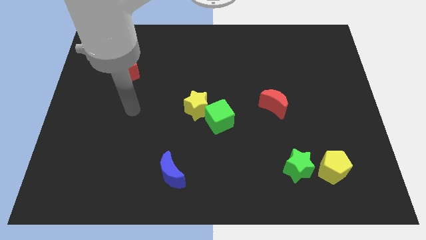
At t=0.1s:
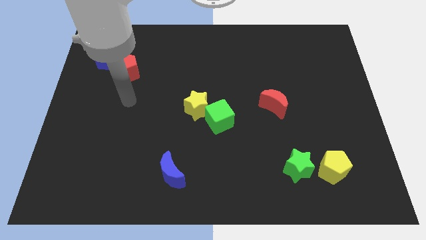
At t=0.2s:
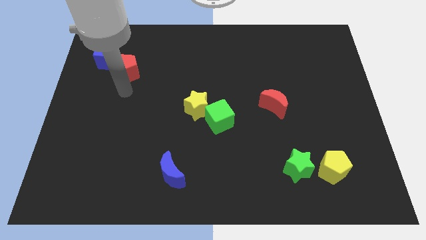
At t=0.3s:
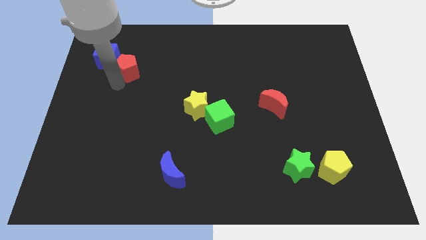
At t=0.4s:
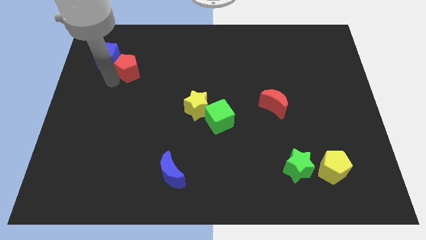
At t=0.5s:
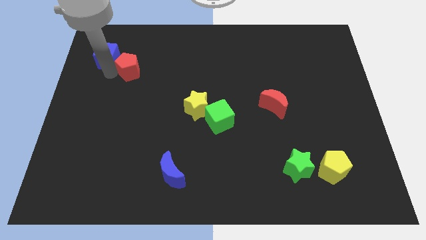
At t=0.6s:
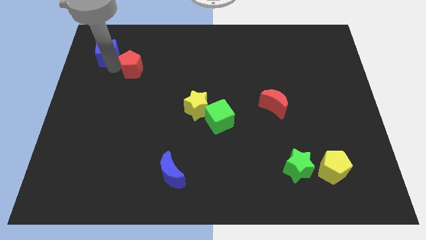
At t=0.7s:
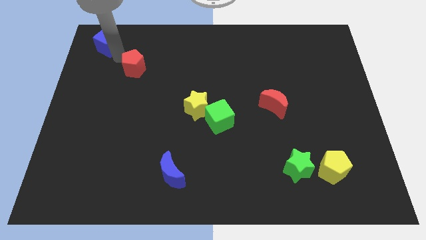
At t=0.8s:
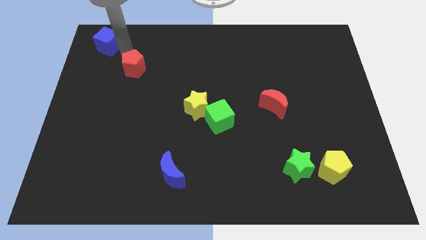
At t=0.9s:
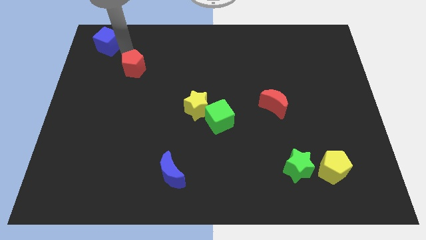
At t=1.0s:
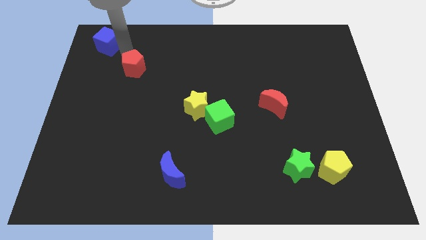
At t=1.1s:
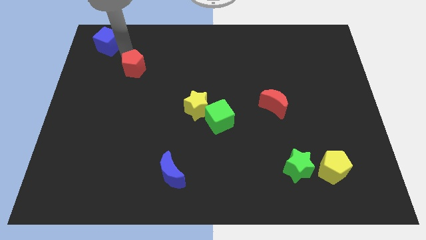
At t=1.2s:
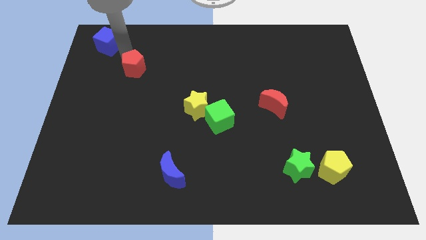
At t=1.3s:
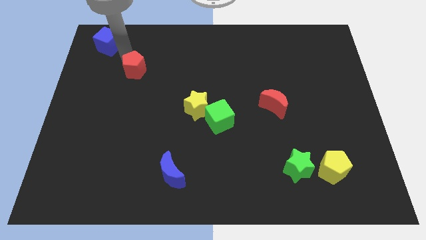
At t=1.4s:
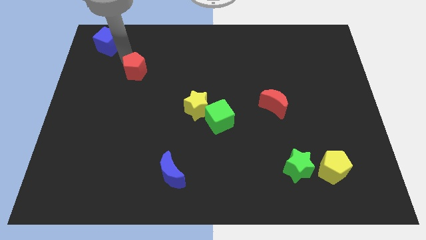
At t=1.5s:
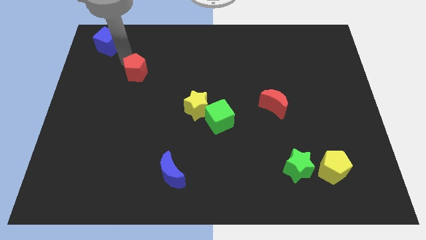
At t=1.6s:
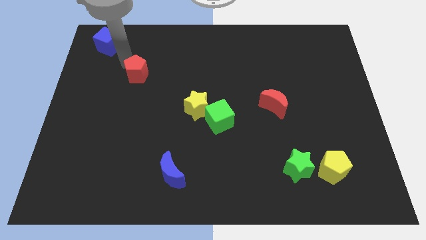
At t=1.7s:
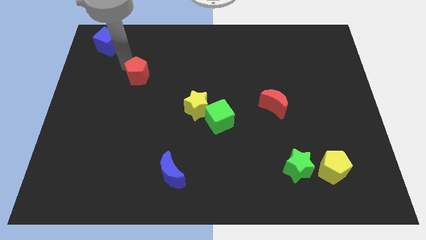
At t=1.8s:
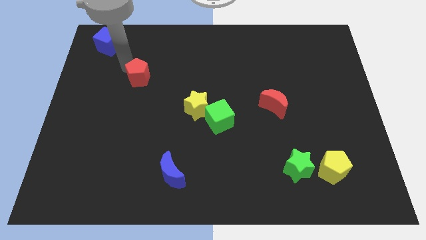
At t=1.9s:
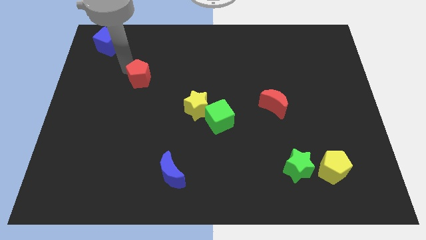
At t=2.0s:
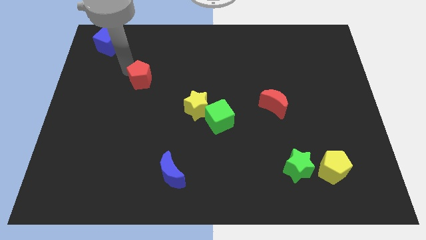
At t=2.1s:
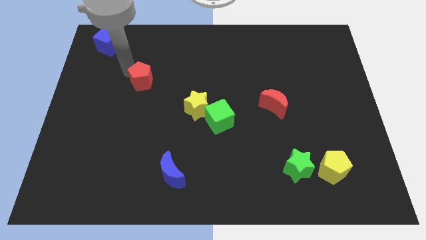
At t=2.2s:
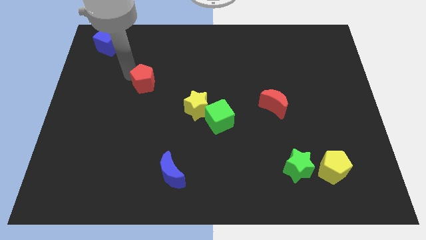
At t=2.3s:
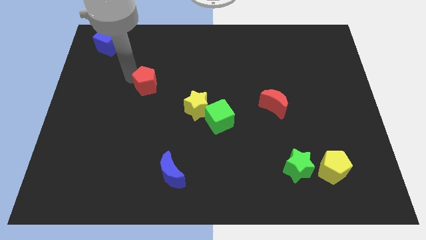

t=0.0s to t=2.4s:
move the red pentagon down and to the right diagonally a little

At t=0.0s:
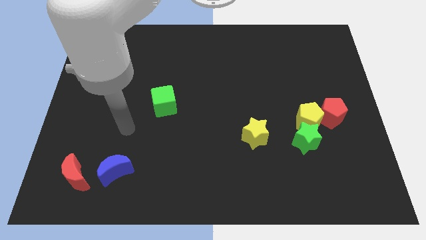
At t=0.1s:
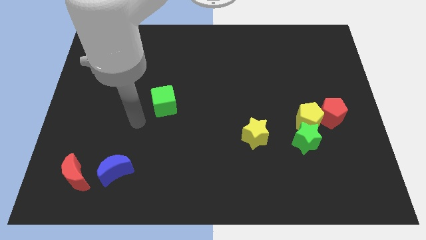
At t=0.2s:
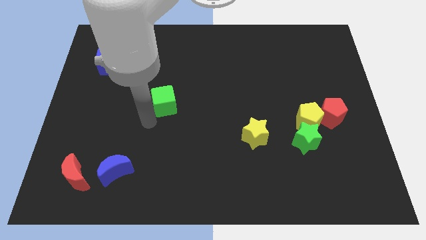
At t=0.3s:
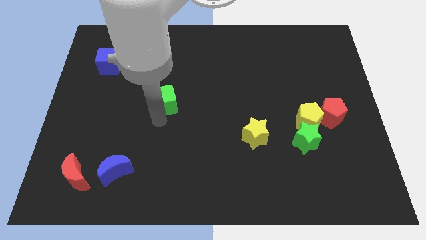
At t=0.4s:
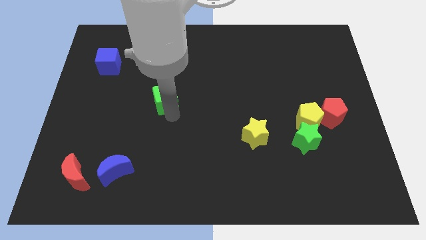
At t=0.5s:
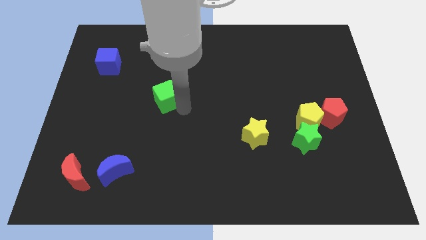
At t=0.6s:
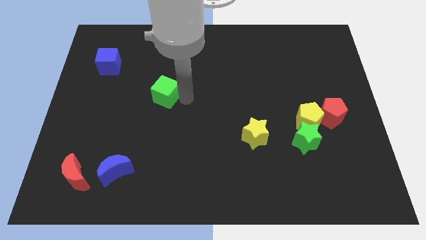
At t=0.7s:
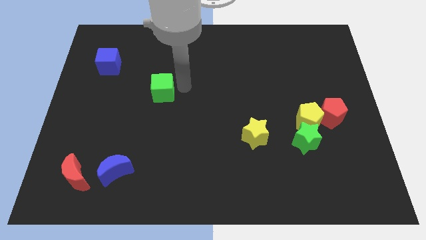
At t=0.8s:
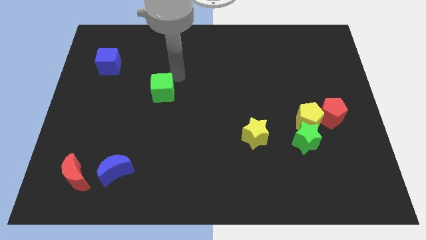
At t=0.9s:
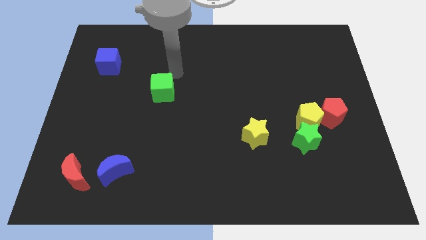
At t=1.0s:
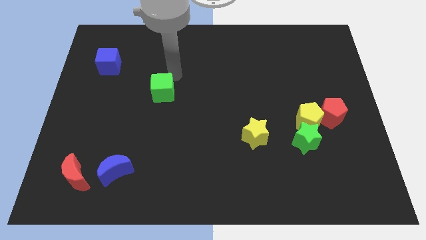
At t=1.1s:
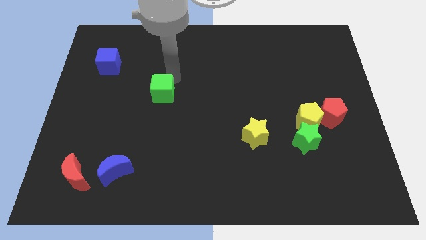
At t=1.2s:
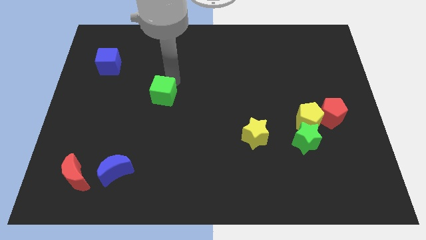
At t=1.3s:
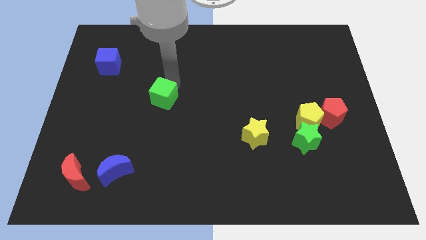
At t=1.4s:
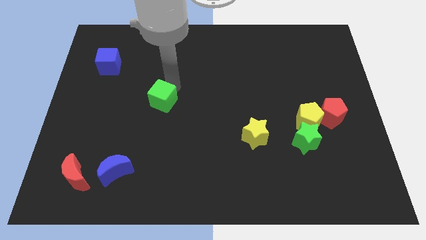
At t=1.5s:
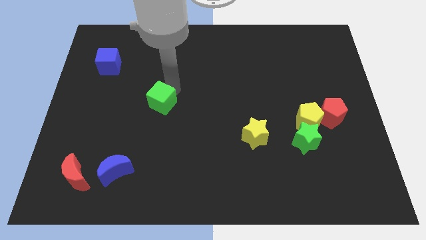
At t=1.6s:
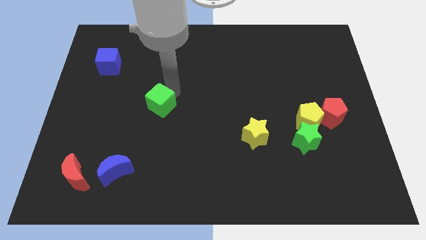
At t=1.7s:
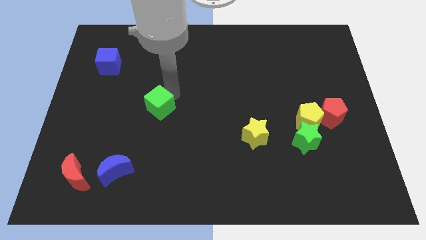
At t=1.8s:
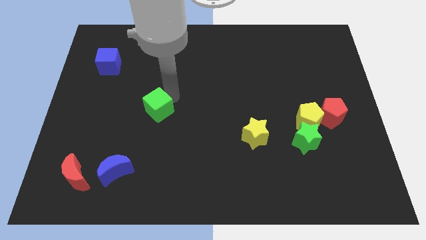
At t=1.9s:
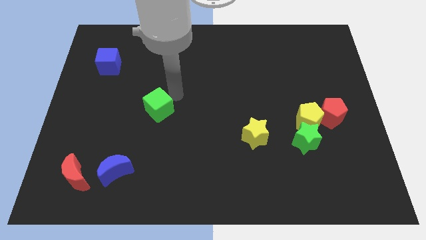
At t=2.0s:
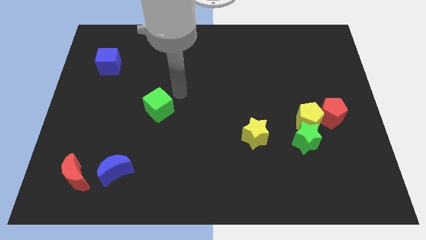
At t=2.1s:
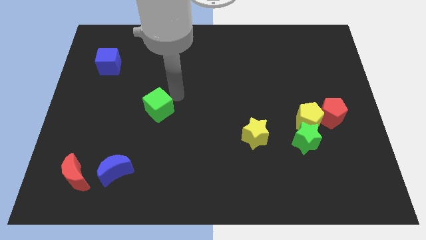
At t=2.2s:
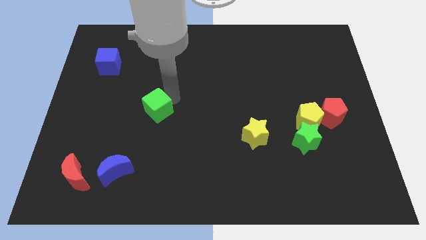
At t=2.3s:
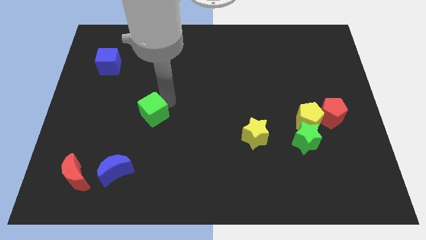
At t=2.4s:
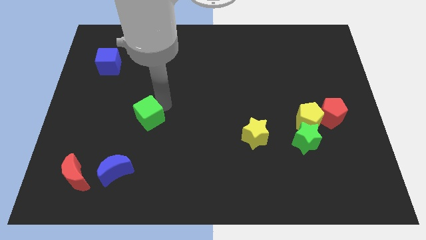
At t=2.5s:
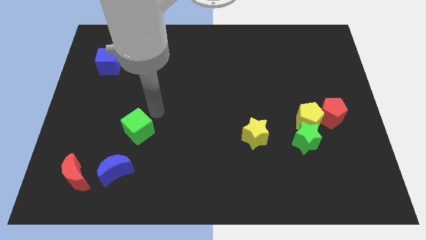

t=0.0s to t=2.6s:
push the green cube downwards and to the left diagonally a little bit

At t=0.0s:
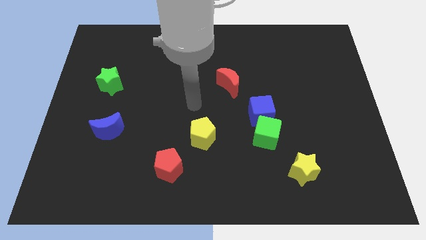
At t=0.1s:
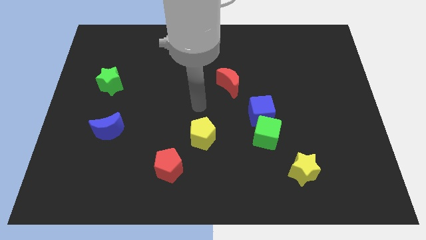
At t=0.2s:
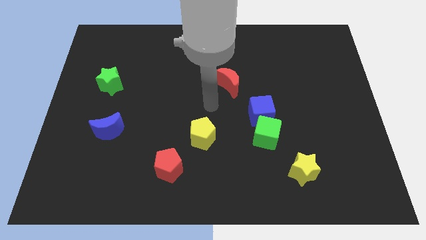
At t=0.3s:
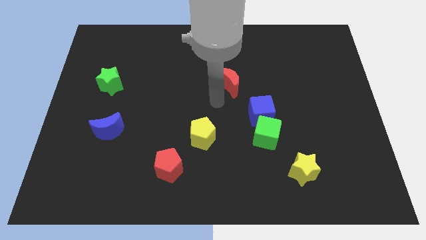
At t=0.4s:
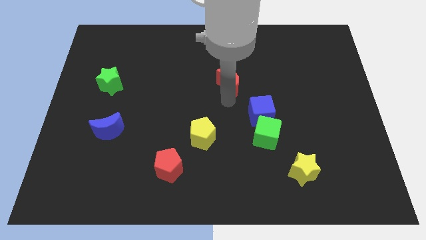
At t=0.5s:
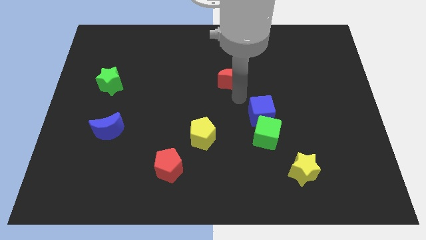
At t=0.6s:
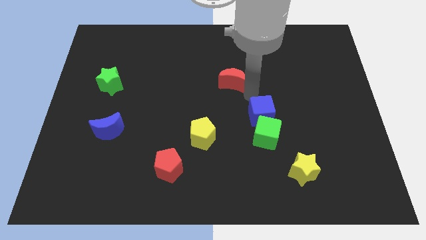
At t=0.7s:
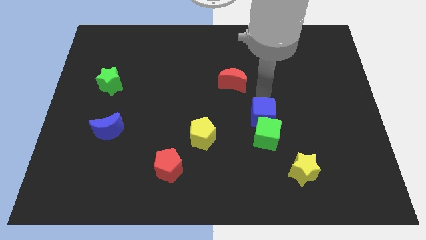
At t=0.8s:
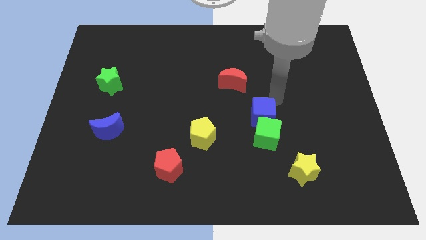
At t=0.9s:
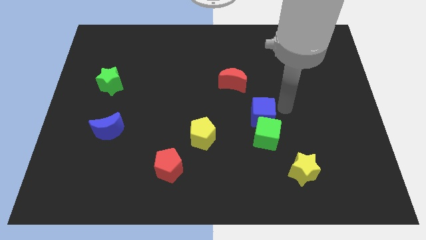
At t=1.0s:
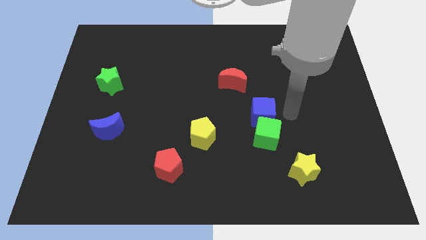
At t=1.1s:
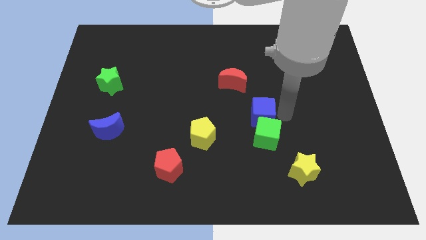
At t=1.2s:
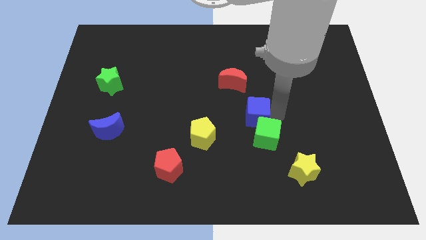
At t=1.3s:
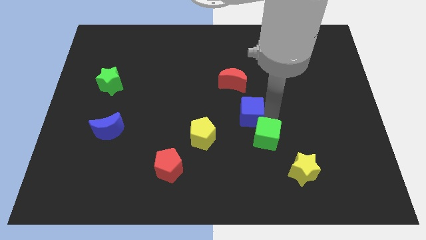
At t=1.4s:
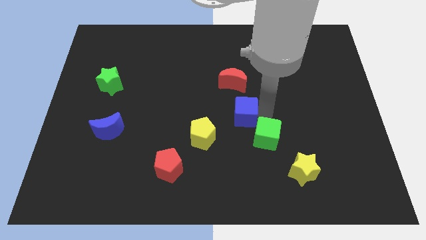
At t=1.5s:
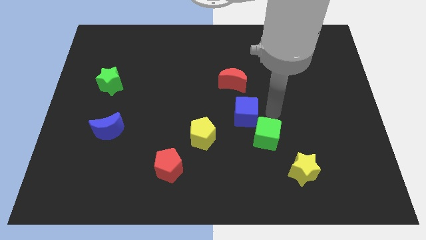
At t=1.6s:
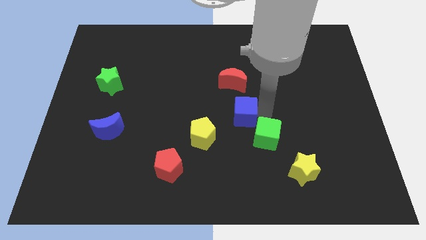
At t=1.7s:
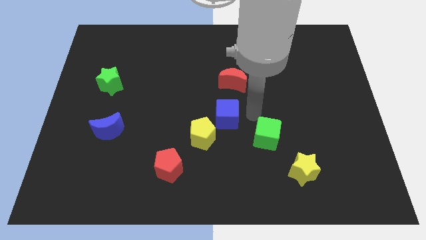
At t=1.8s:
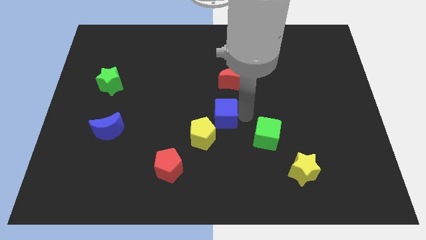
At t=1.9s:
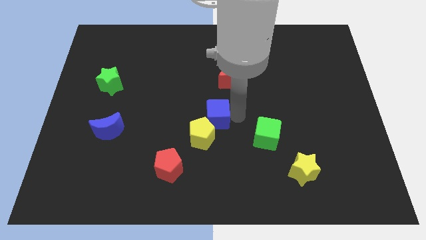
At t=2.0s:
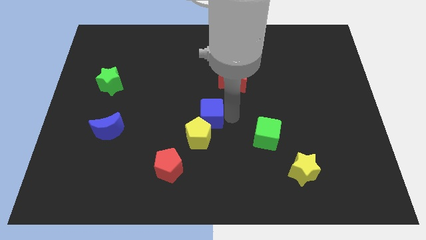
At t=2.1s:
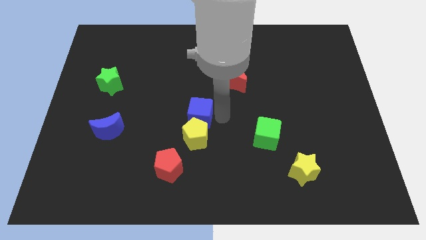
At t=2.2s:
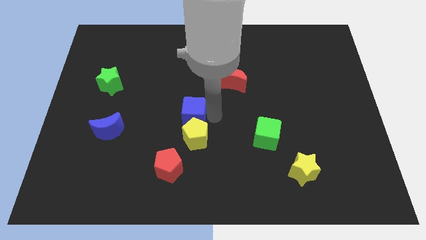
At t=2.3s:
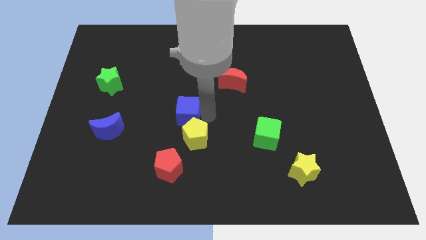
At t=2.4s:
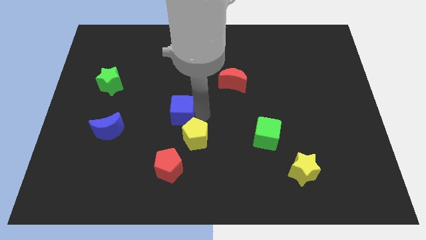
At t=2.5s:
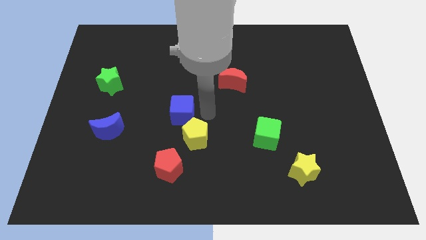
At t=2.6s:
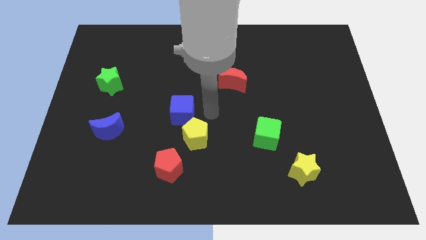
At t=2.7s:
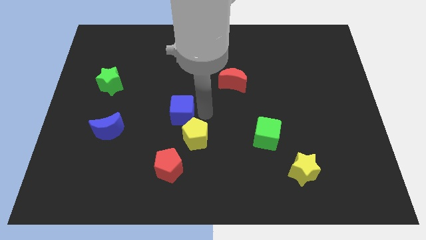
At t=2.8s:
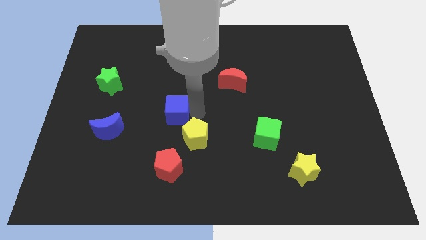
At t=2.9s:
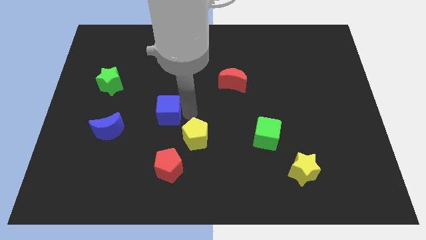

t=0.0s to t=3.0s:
slide the blue cube to the left
